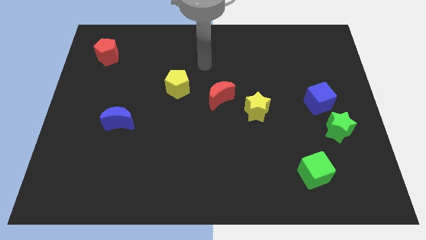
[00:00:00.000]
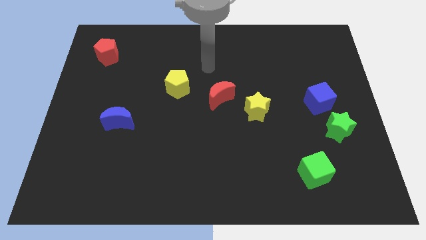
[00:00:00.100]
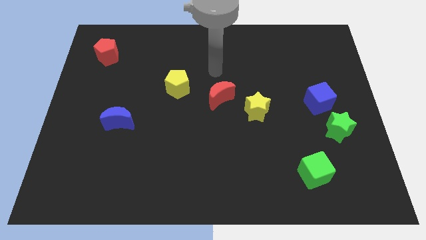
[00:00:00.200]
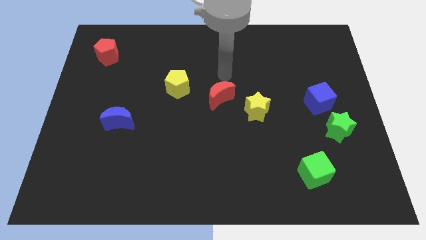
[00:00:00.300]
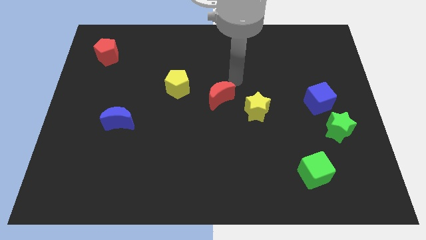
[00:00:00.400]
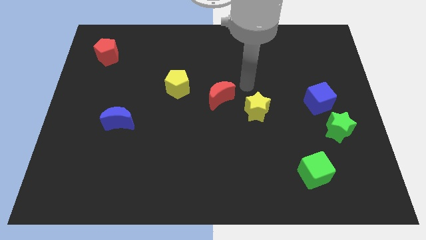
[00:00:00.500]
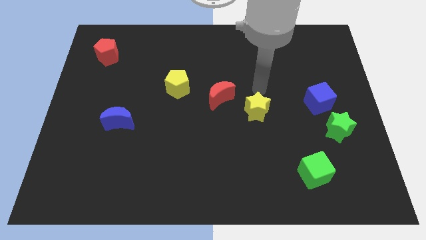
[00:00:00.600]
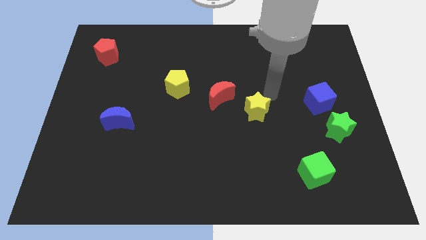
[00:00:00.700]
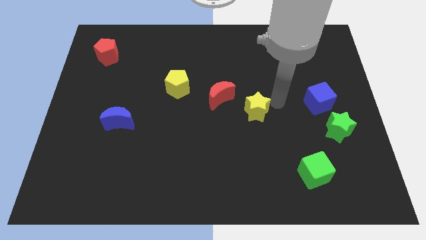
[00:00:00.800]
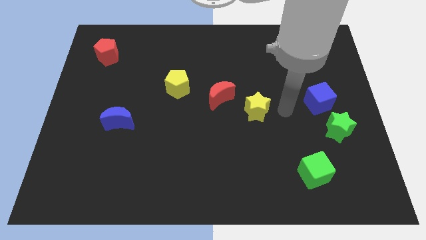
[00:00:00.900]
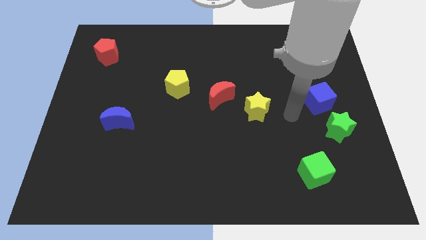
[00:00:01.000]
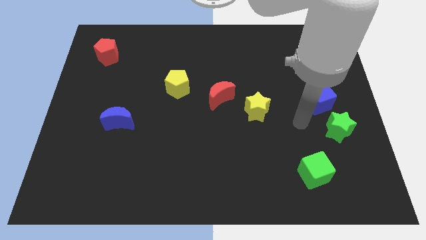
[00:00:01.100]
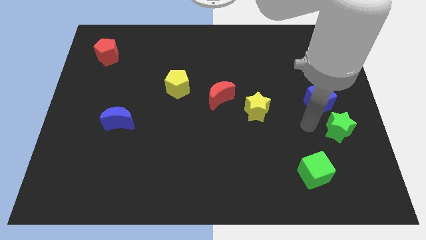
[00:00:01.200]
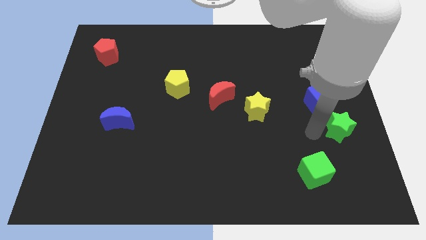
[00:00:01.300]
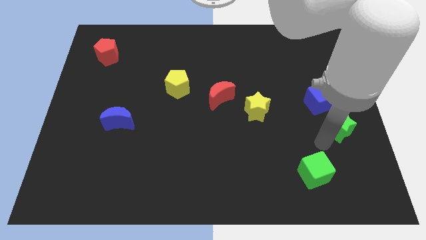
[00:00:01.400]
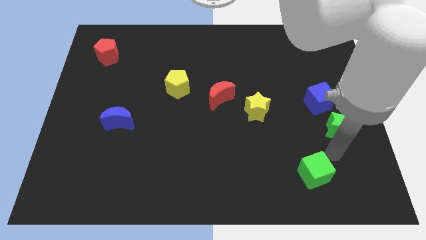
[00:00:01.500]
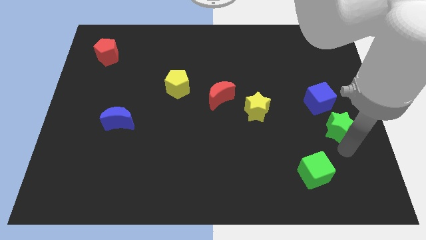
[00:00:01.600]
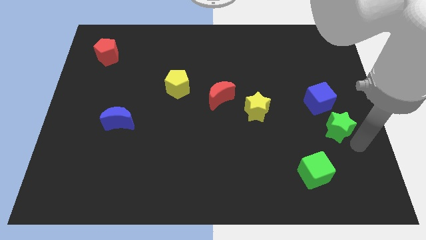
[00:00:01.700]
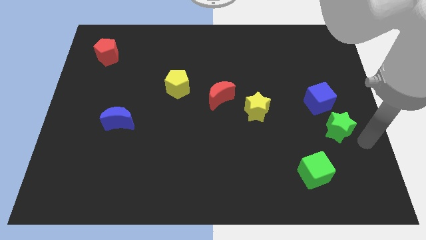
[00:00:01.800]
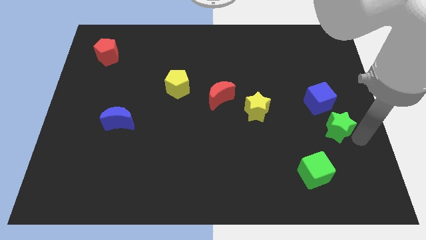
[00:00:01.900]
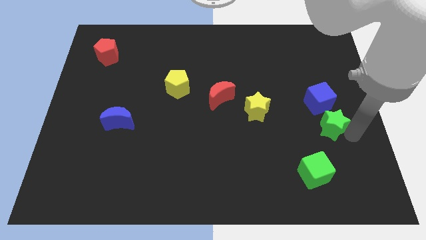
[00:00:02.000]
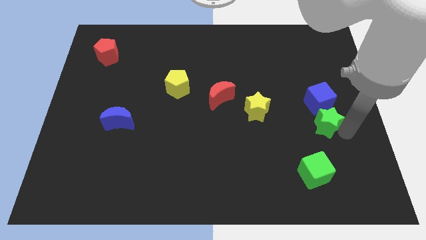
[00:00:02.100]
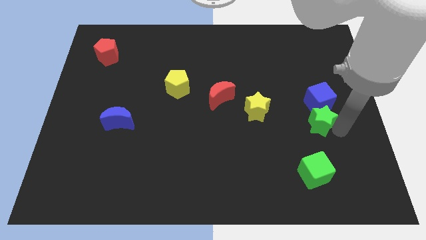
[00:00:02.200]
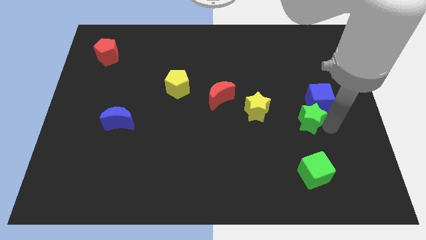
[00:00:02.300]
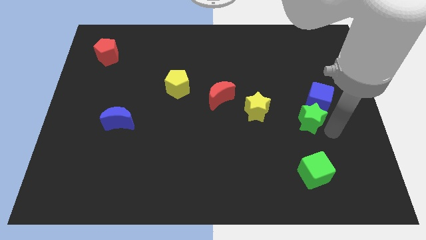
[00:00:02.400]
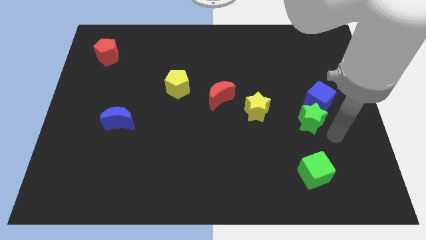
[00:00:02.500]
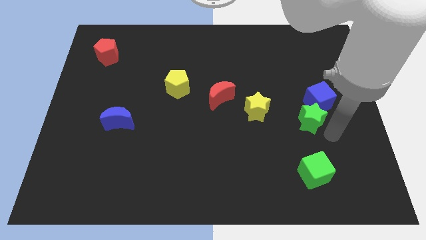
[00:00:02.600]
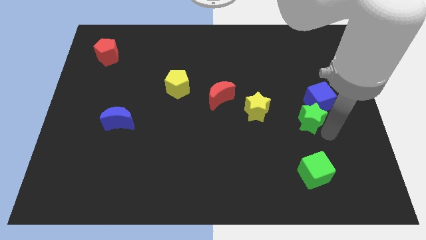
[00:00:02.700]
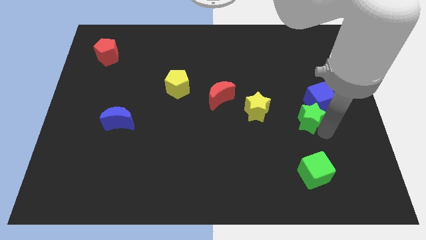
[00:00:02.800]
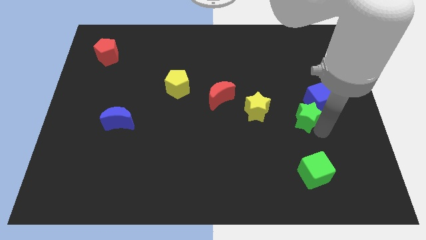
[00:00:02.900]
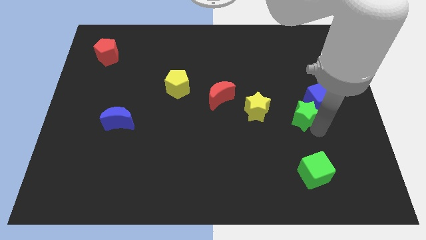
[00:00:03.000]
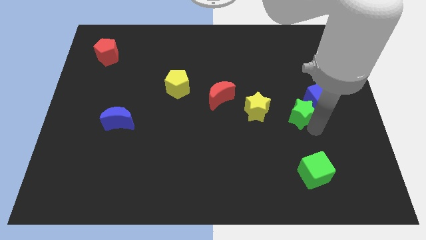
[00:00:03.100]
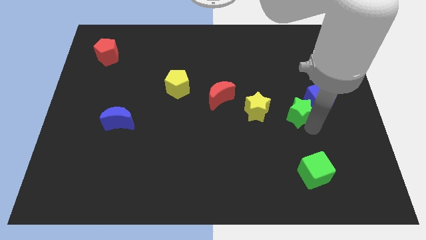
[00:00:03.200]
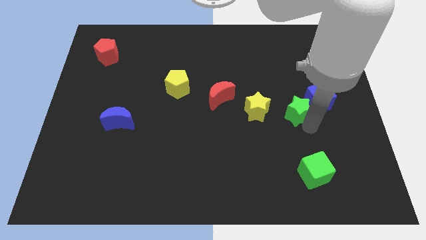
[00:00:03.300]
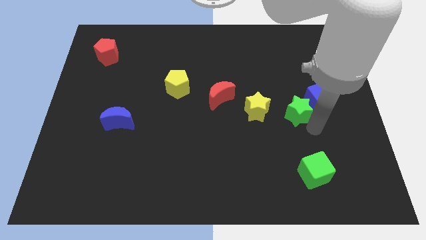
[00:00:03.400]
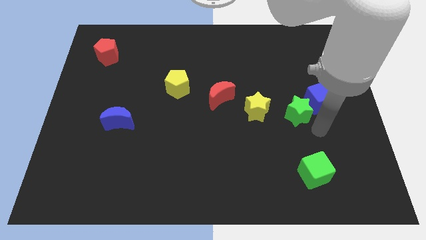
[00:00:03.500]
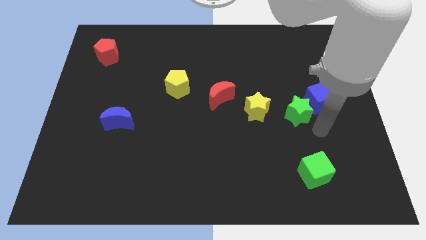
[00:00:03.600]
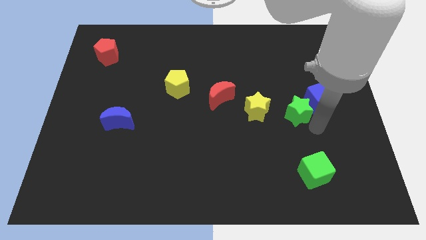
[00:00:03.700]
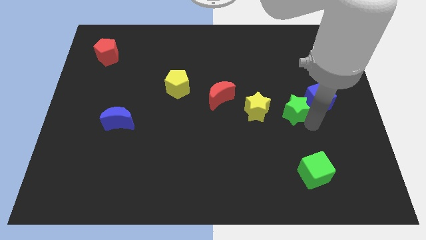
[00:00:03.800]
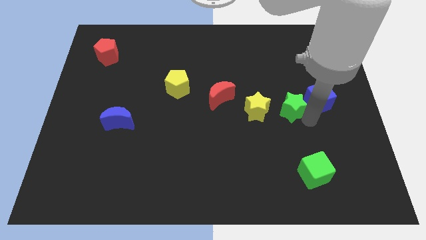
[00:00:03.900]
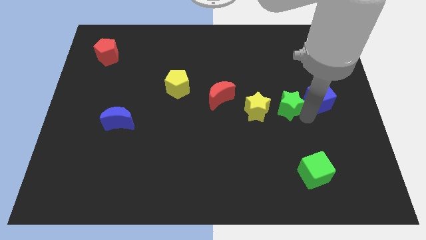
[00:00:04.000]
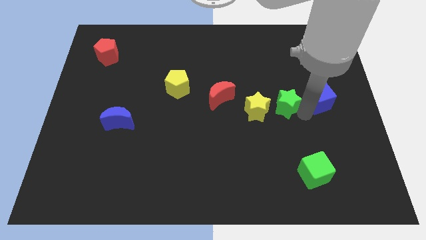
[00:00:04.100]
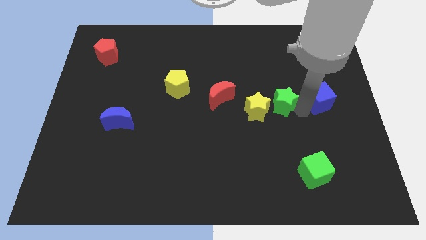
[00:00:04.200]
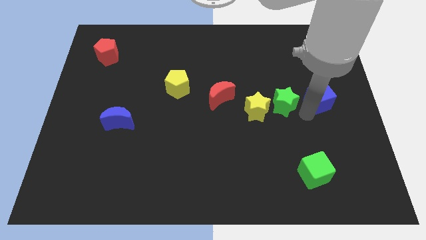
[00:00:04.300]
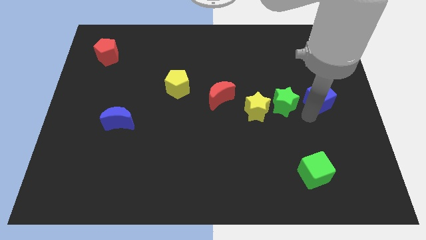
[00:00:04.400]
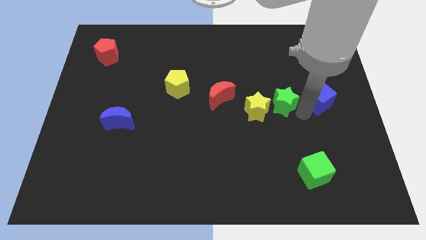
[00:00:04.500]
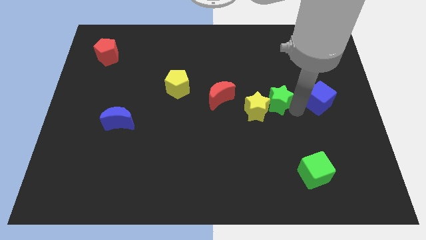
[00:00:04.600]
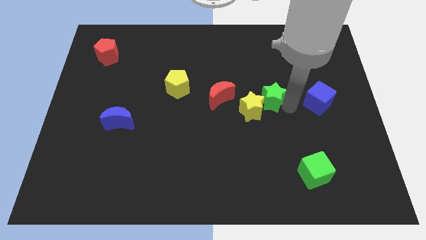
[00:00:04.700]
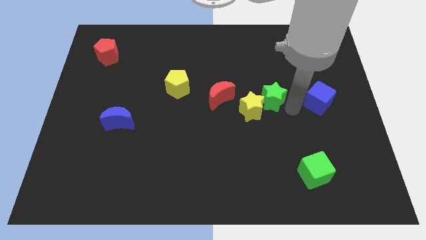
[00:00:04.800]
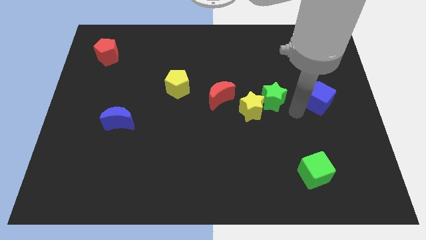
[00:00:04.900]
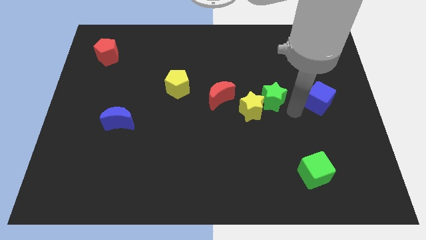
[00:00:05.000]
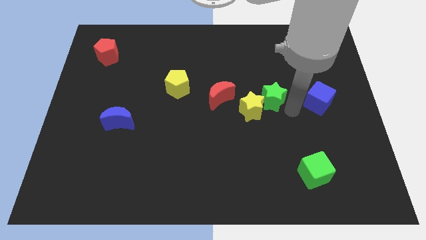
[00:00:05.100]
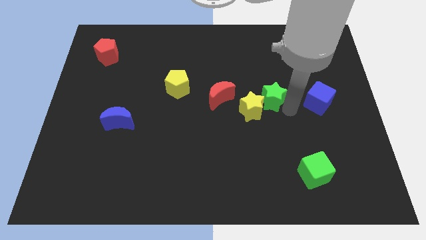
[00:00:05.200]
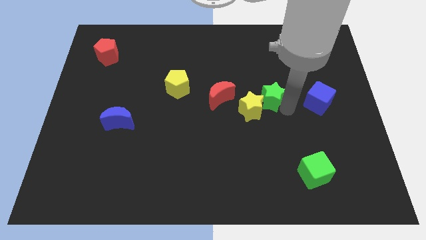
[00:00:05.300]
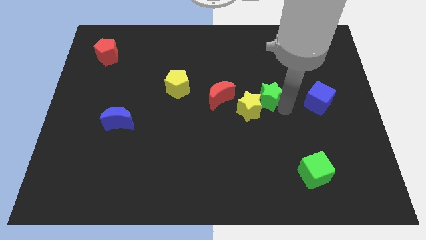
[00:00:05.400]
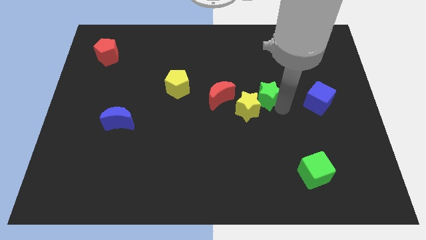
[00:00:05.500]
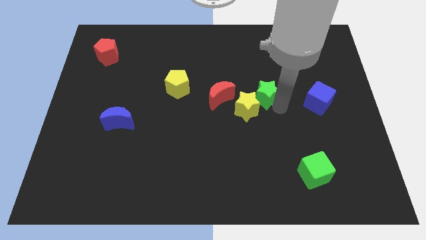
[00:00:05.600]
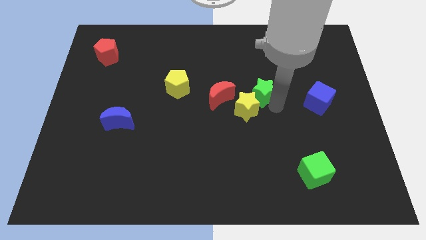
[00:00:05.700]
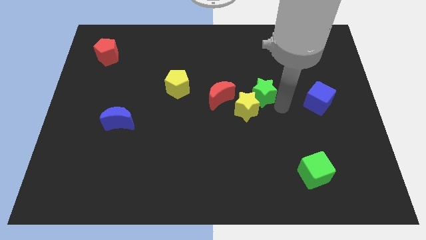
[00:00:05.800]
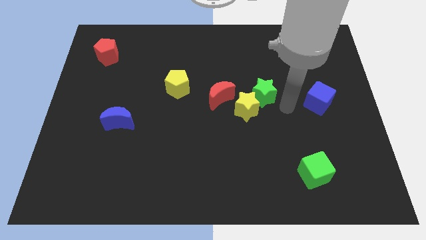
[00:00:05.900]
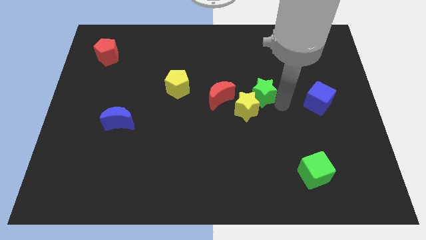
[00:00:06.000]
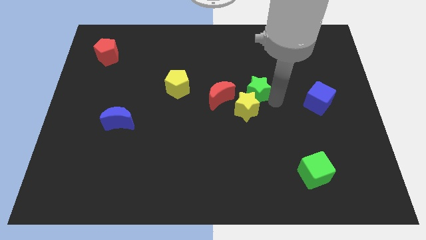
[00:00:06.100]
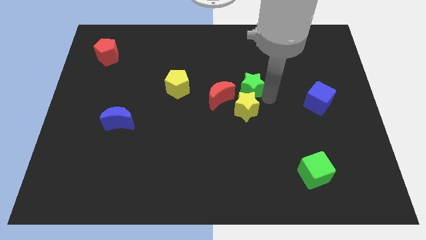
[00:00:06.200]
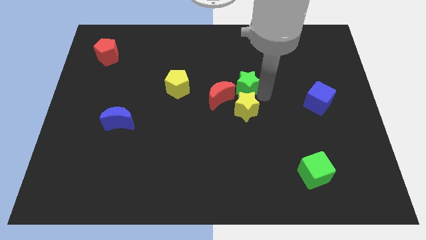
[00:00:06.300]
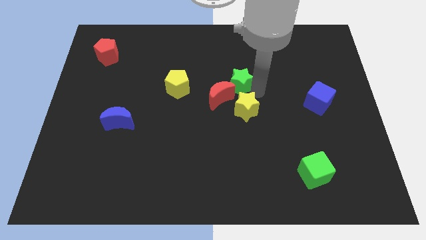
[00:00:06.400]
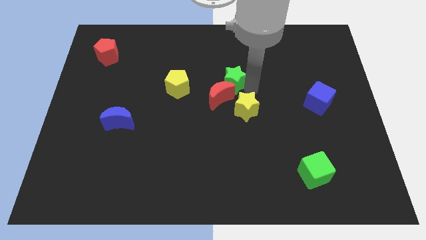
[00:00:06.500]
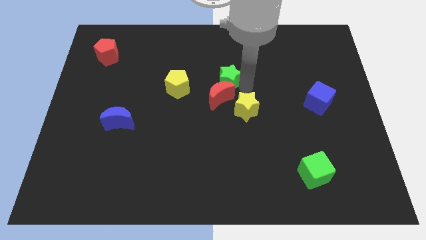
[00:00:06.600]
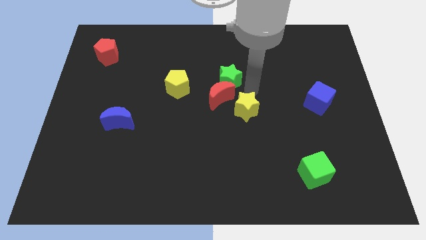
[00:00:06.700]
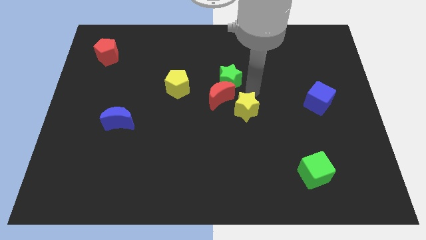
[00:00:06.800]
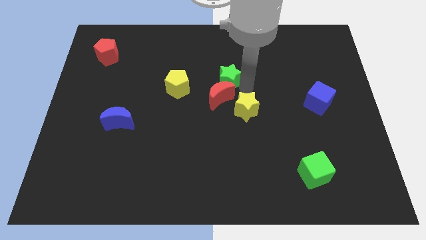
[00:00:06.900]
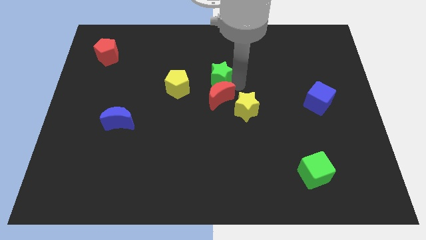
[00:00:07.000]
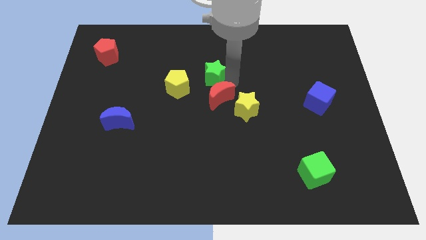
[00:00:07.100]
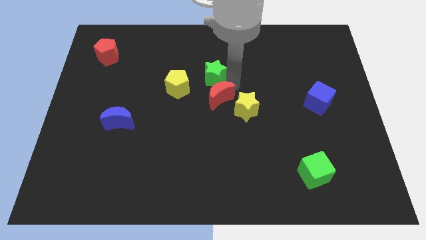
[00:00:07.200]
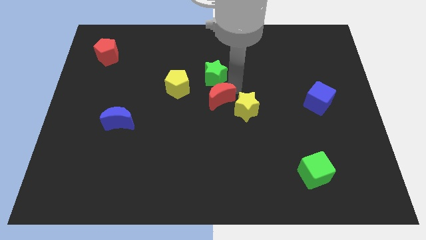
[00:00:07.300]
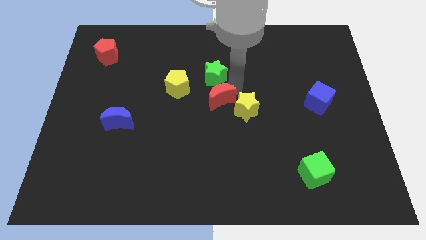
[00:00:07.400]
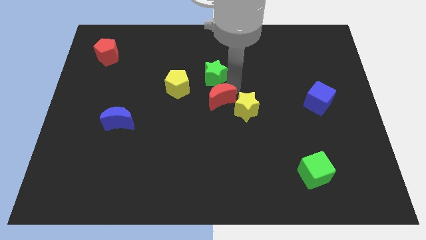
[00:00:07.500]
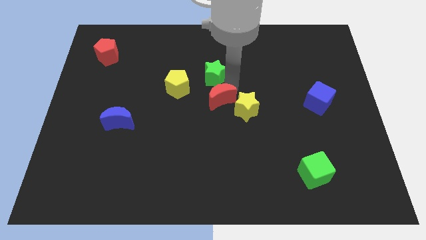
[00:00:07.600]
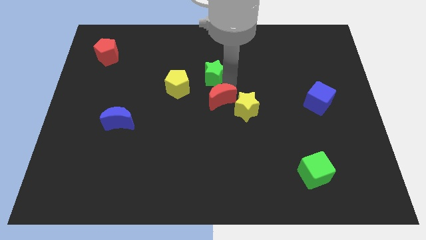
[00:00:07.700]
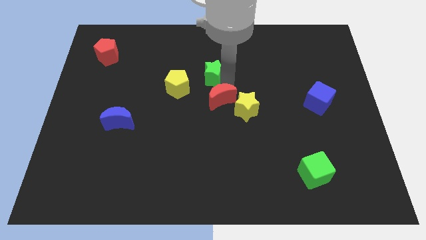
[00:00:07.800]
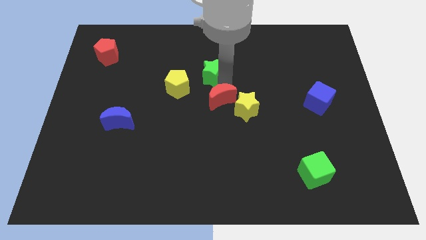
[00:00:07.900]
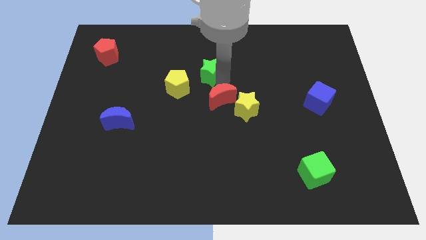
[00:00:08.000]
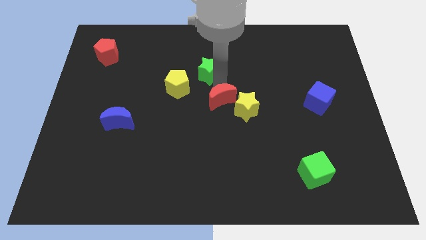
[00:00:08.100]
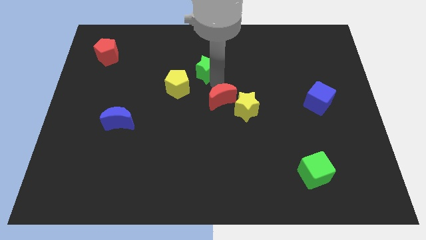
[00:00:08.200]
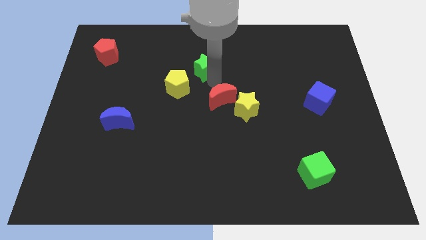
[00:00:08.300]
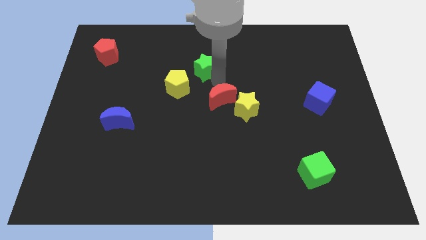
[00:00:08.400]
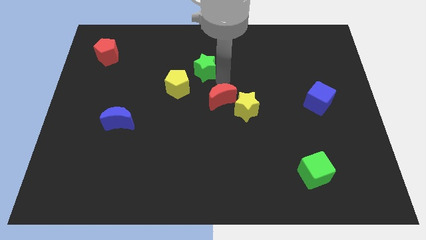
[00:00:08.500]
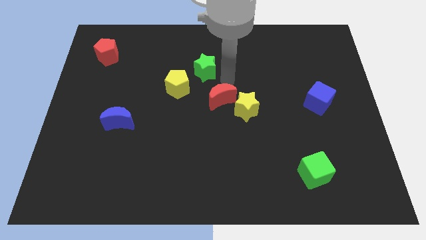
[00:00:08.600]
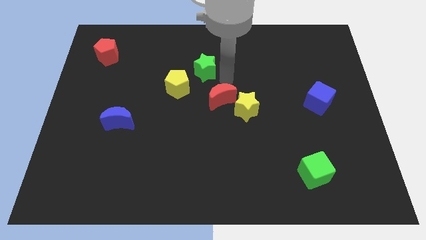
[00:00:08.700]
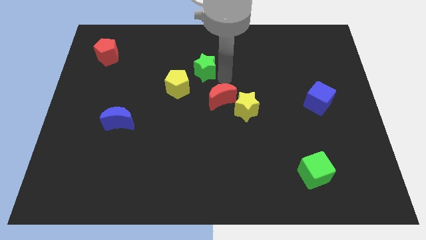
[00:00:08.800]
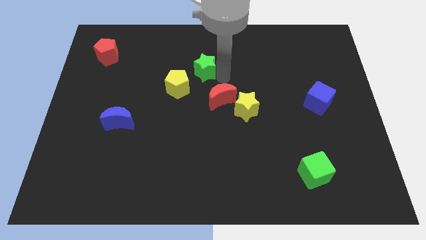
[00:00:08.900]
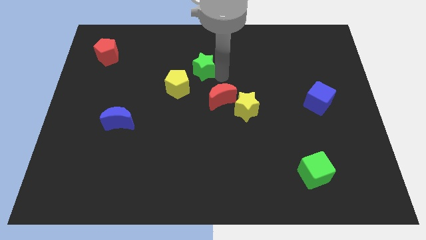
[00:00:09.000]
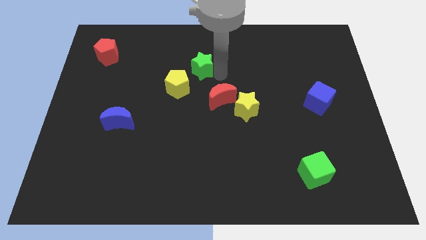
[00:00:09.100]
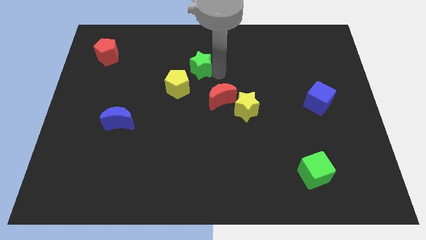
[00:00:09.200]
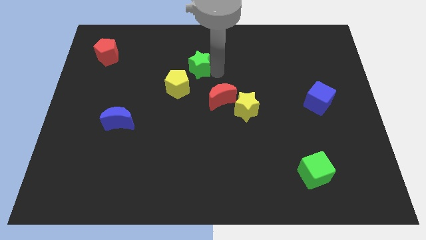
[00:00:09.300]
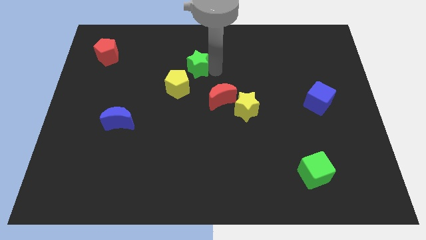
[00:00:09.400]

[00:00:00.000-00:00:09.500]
put the green star to the top of the yellow pentagon
